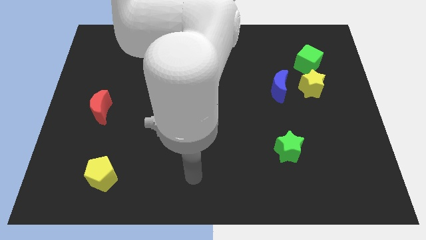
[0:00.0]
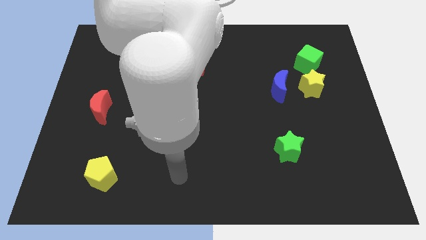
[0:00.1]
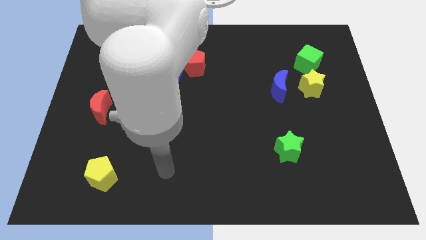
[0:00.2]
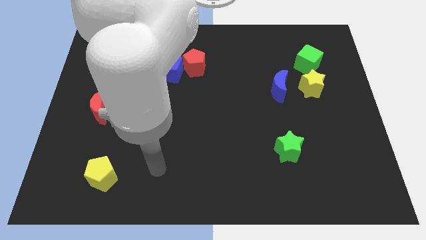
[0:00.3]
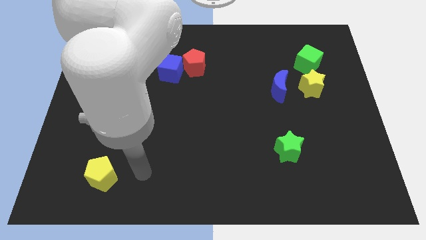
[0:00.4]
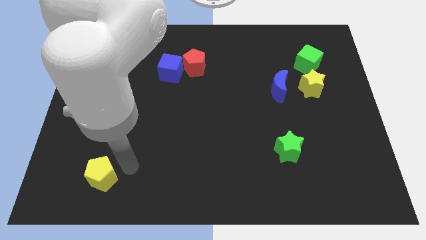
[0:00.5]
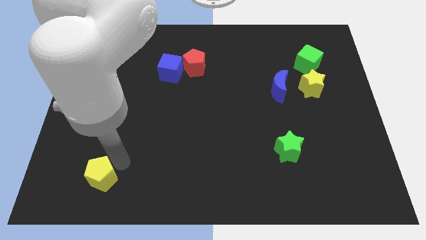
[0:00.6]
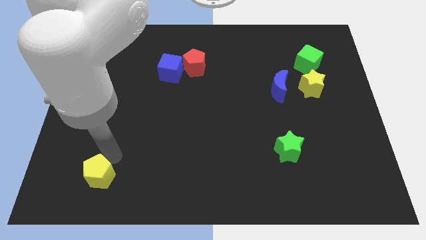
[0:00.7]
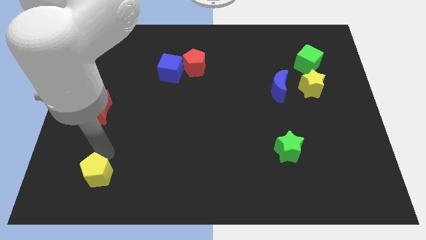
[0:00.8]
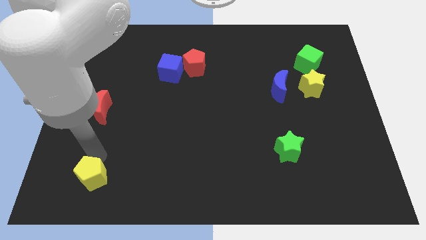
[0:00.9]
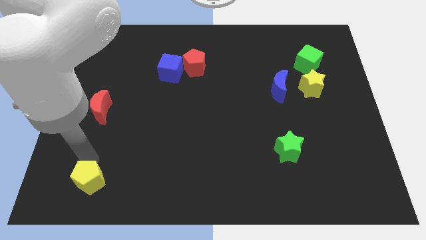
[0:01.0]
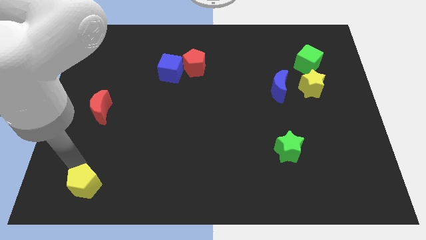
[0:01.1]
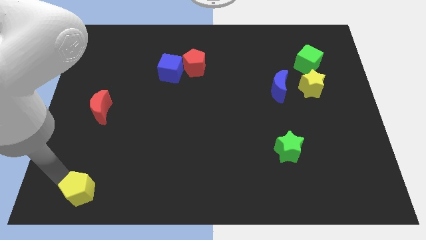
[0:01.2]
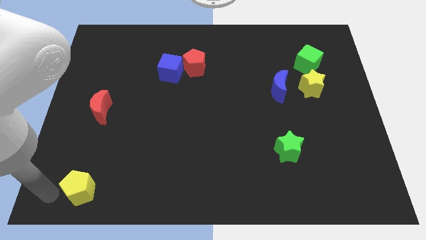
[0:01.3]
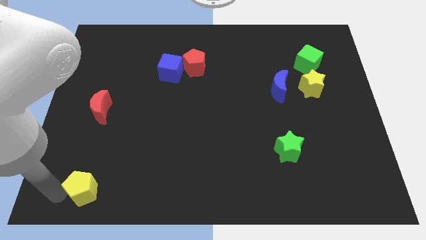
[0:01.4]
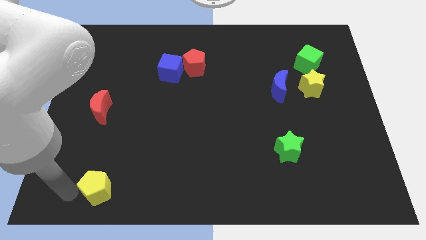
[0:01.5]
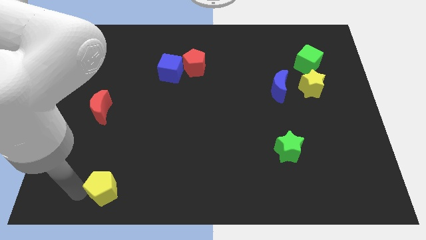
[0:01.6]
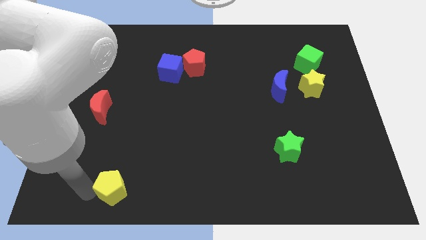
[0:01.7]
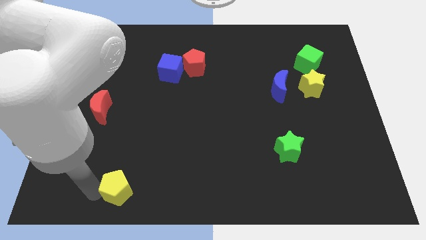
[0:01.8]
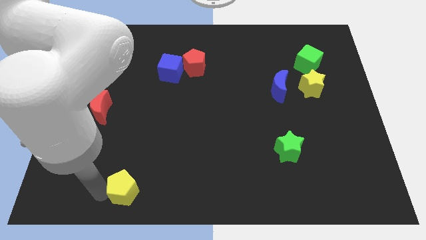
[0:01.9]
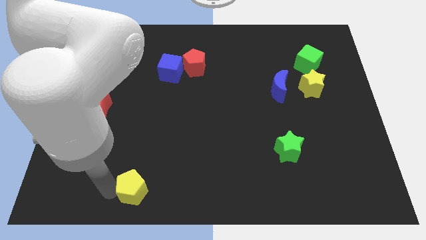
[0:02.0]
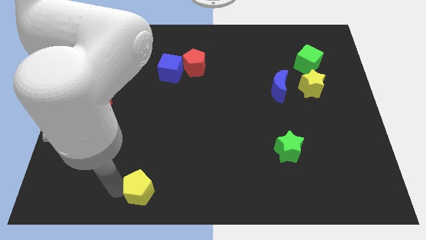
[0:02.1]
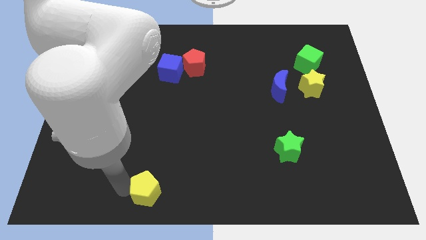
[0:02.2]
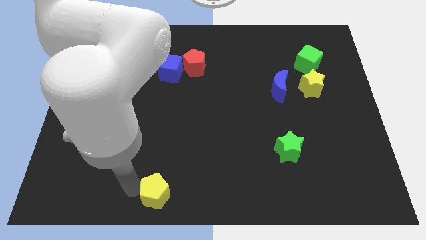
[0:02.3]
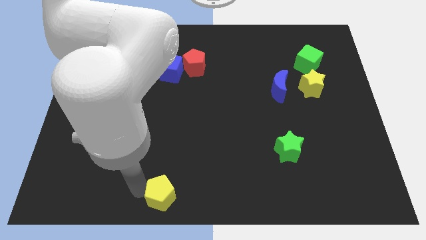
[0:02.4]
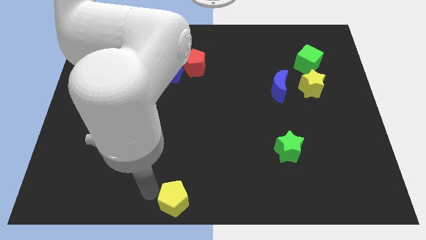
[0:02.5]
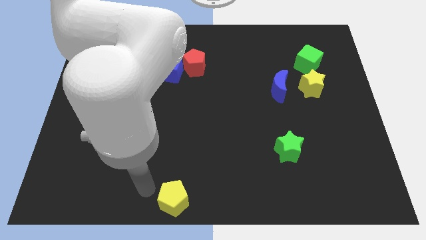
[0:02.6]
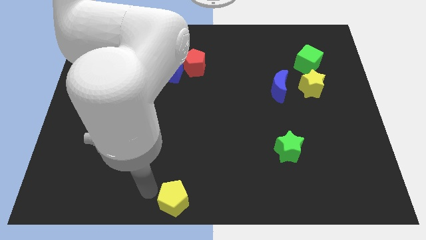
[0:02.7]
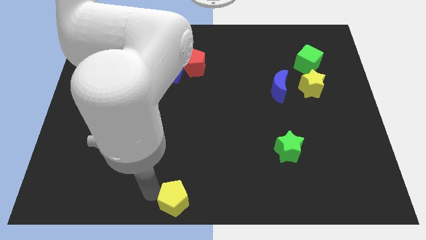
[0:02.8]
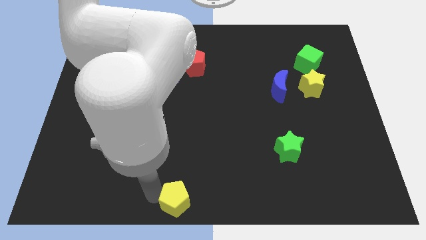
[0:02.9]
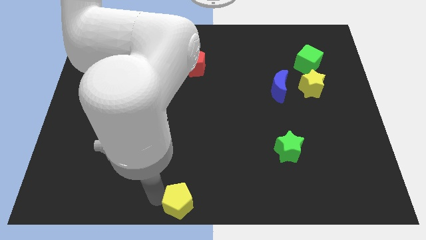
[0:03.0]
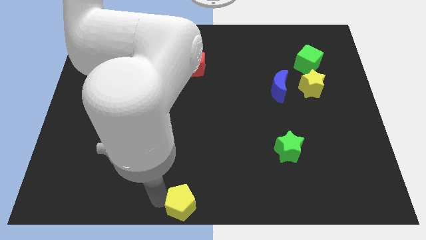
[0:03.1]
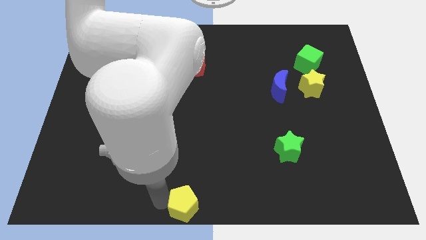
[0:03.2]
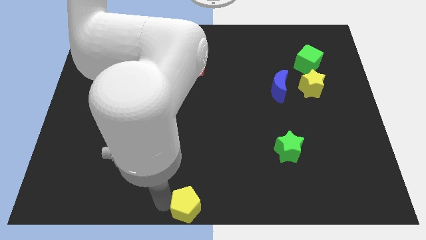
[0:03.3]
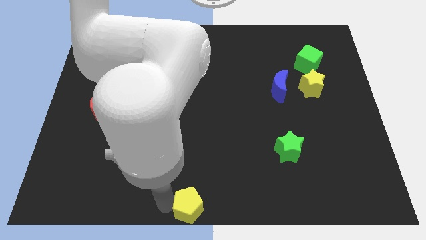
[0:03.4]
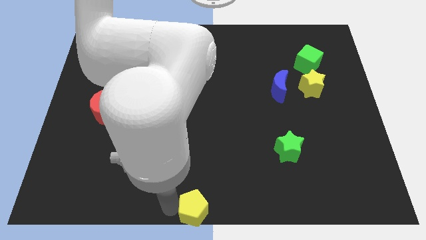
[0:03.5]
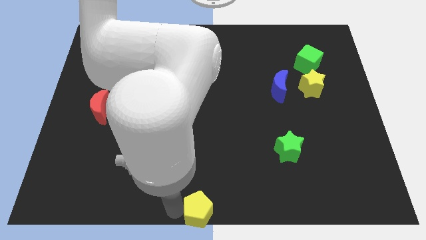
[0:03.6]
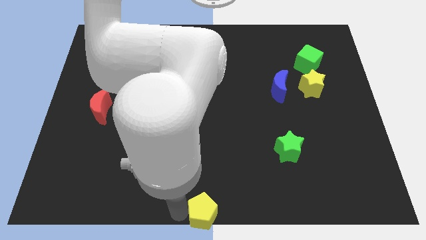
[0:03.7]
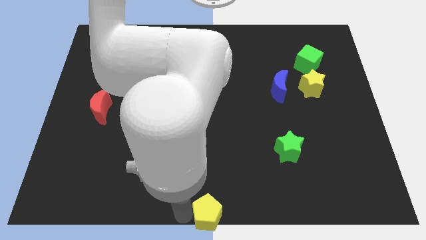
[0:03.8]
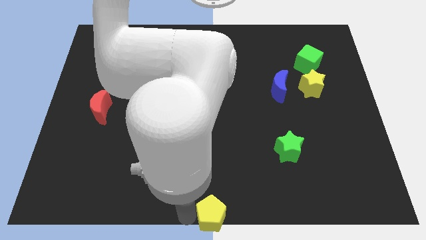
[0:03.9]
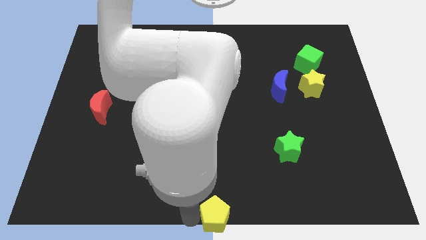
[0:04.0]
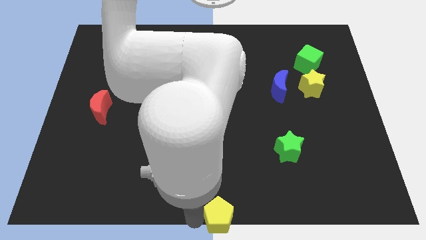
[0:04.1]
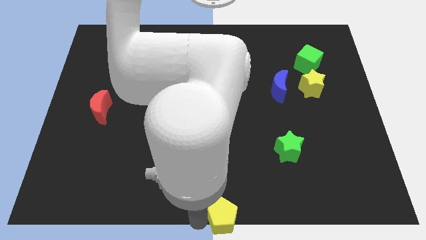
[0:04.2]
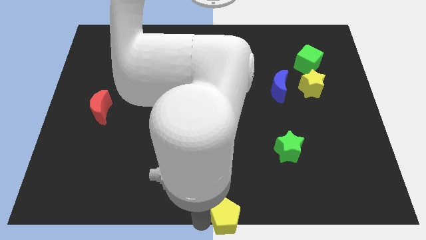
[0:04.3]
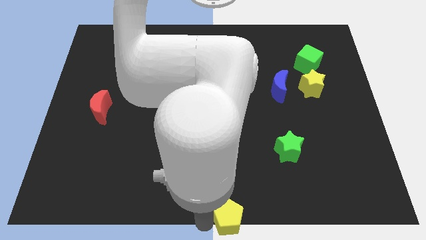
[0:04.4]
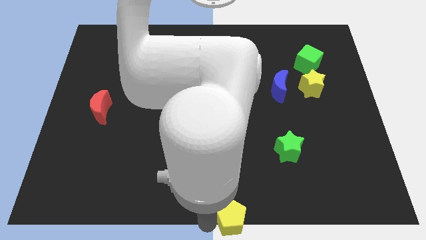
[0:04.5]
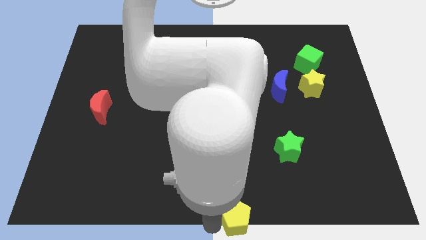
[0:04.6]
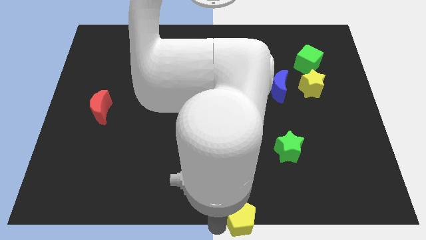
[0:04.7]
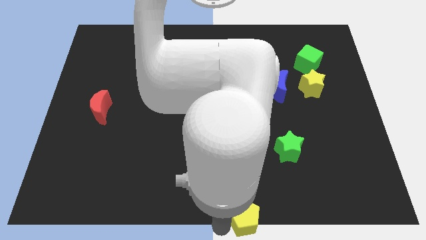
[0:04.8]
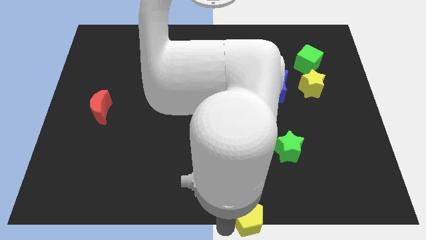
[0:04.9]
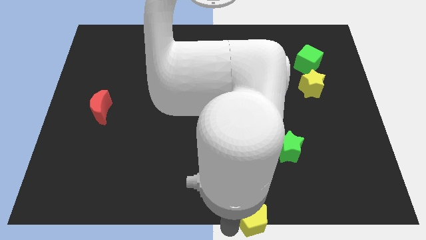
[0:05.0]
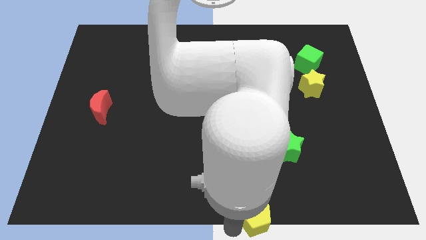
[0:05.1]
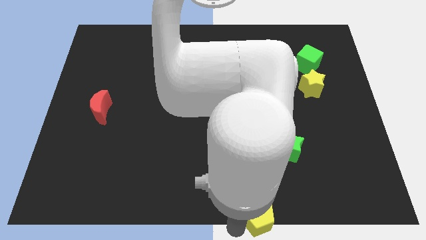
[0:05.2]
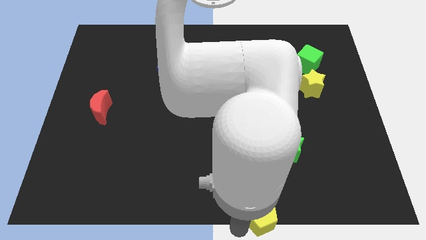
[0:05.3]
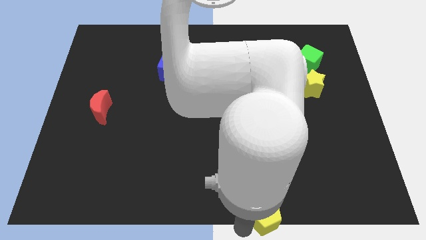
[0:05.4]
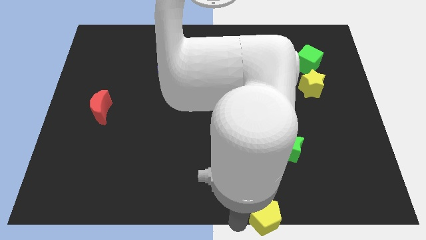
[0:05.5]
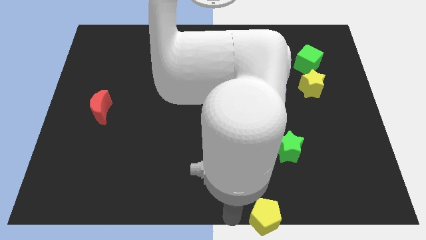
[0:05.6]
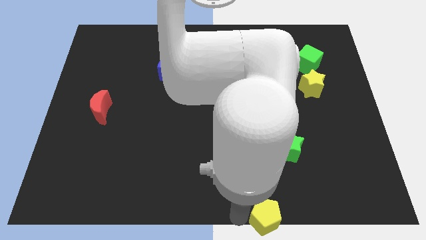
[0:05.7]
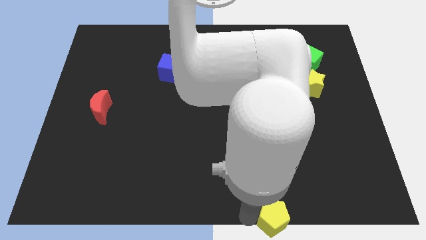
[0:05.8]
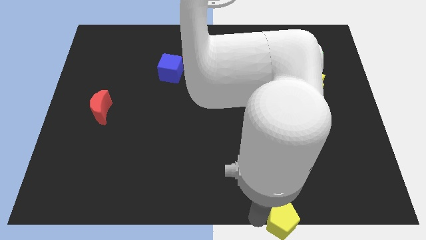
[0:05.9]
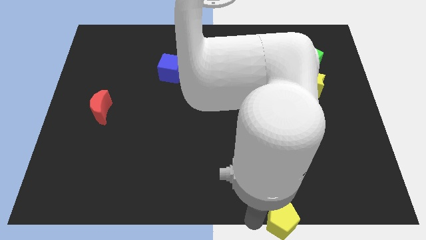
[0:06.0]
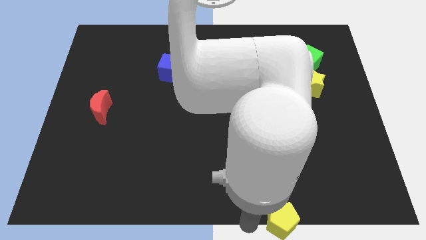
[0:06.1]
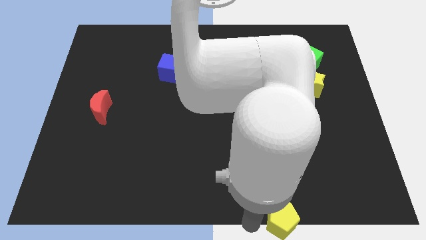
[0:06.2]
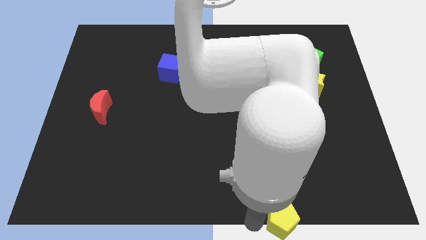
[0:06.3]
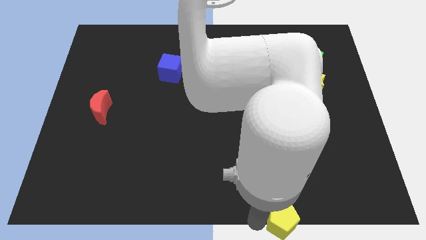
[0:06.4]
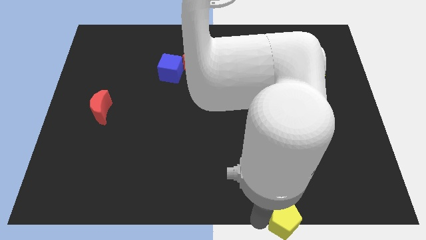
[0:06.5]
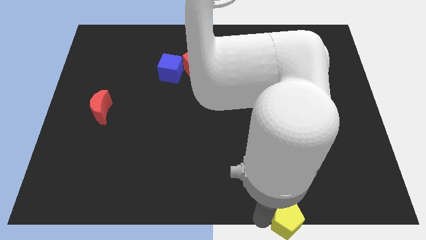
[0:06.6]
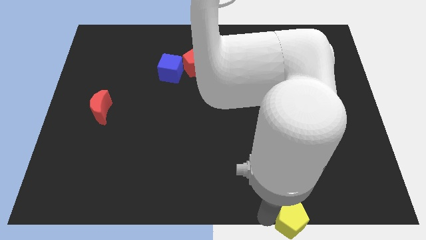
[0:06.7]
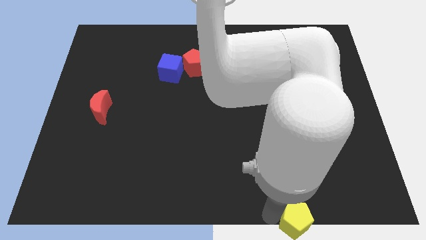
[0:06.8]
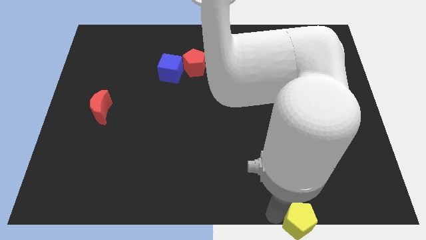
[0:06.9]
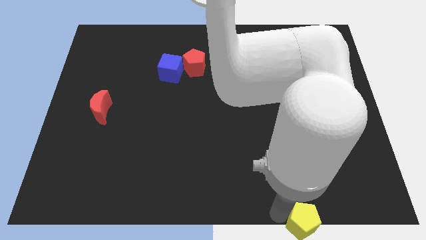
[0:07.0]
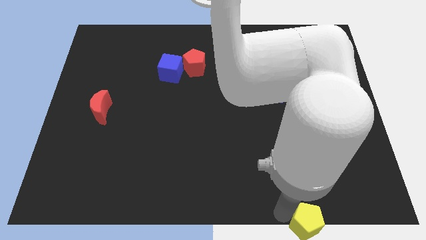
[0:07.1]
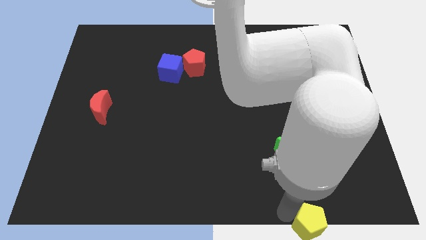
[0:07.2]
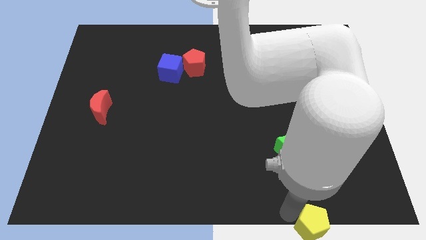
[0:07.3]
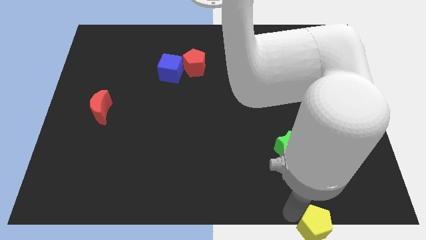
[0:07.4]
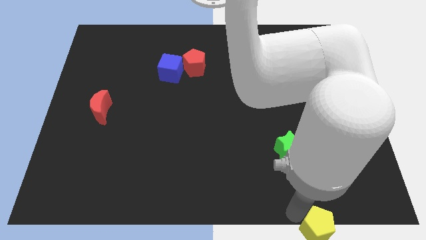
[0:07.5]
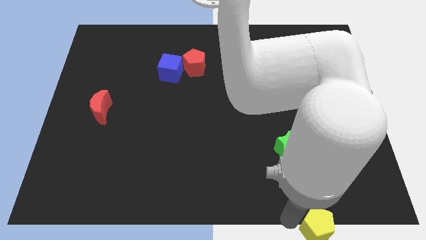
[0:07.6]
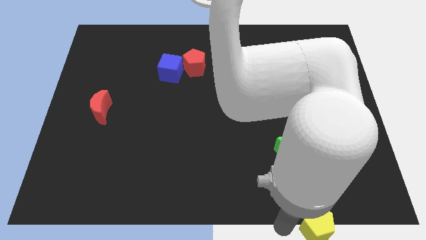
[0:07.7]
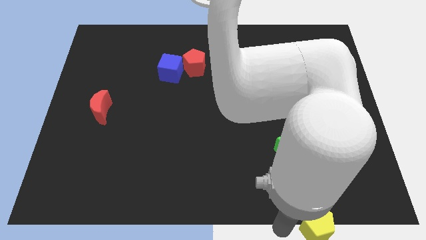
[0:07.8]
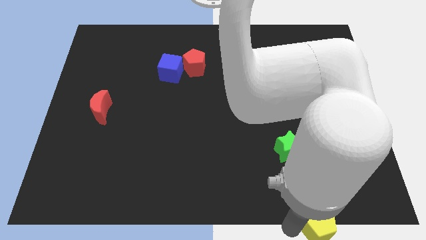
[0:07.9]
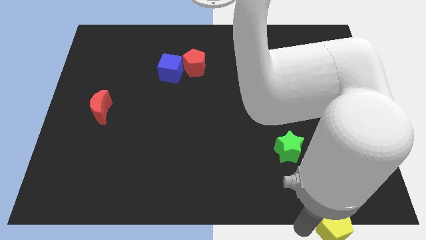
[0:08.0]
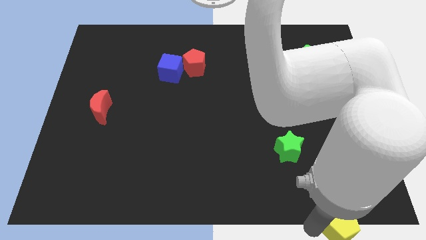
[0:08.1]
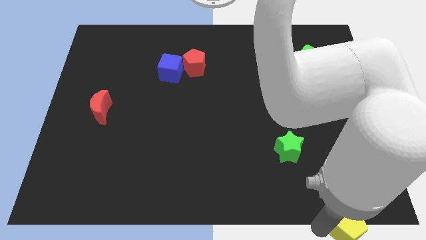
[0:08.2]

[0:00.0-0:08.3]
put the yellow pentagon to the bottom right of the board
